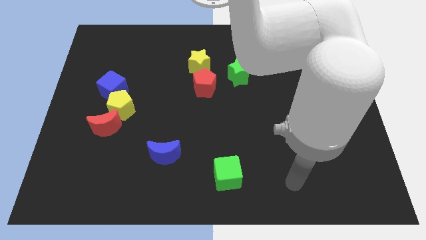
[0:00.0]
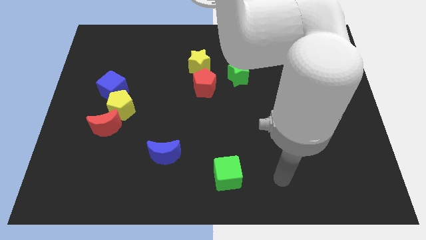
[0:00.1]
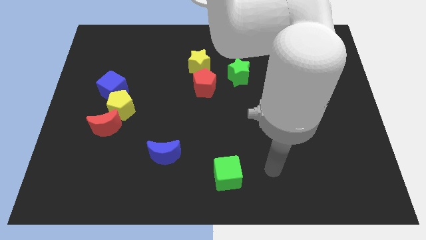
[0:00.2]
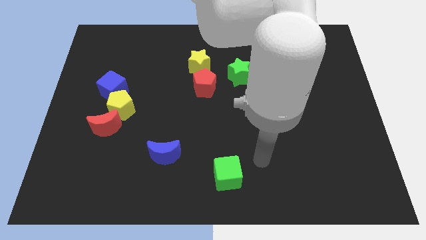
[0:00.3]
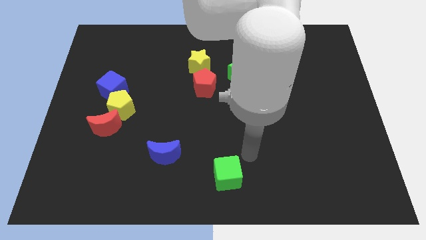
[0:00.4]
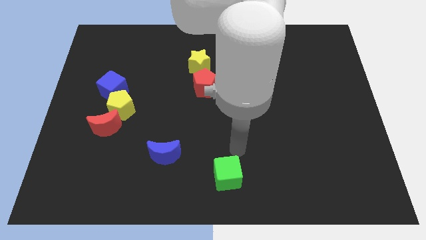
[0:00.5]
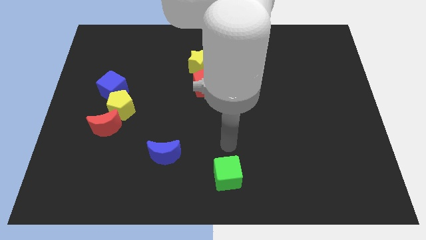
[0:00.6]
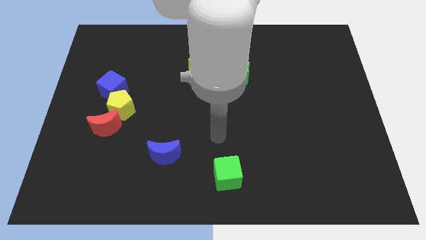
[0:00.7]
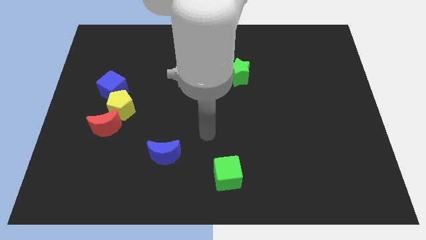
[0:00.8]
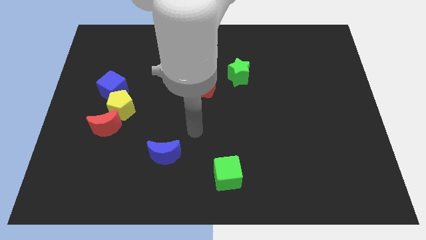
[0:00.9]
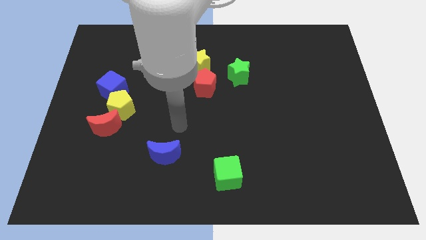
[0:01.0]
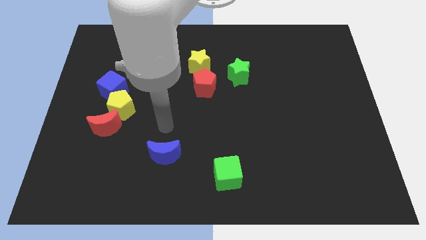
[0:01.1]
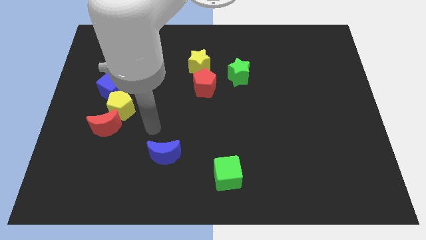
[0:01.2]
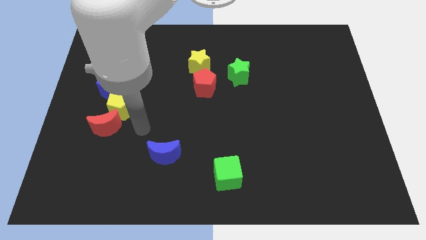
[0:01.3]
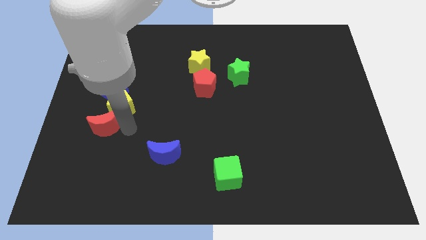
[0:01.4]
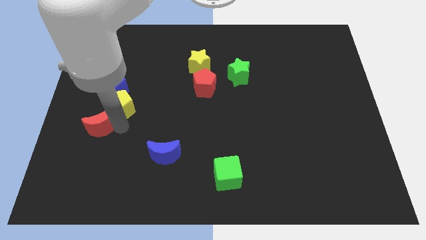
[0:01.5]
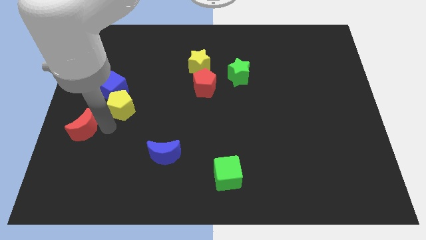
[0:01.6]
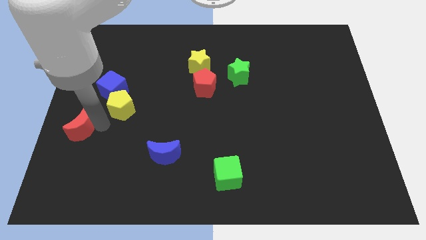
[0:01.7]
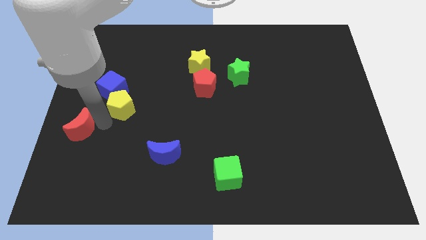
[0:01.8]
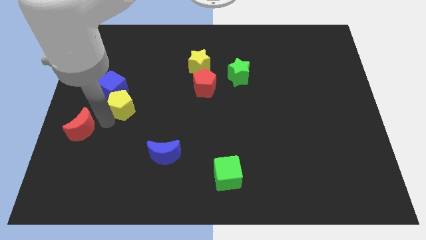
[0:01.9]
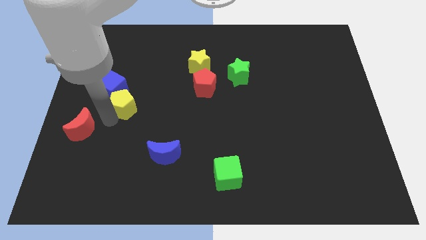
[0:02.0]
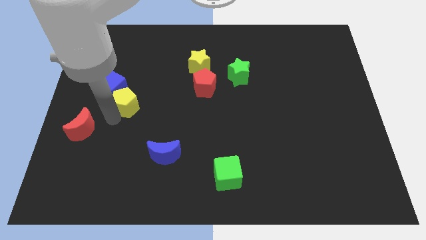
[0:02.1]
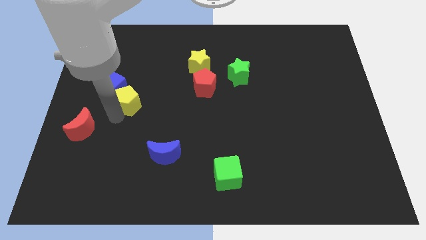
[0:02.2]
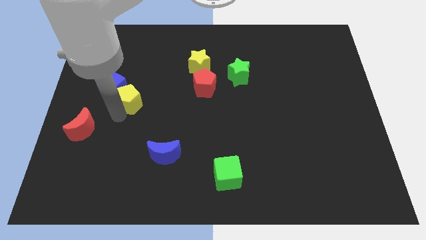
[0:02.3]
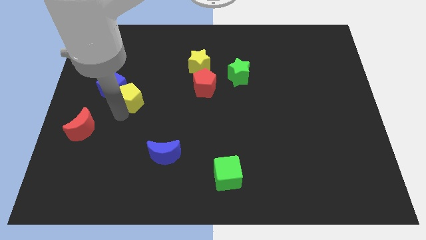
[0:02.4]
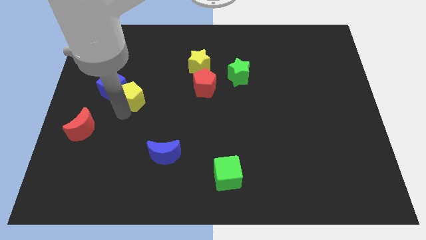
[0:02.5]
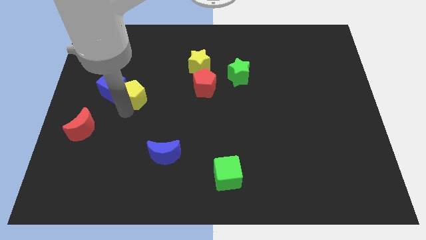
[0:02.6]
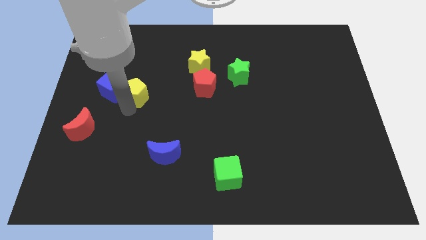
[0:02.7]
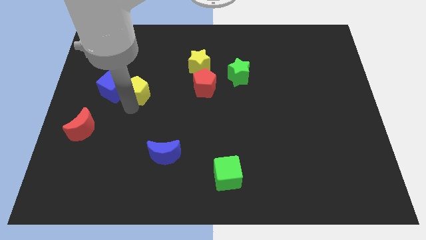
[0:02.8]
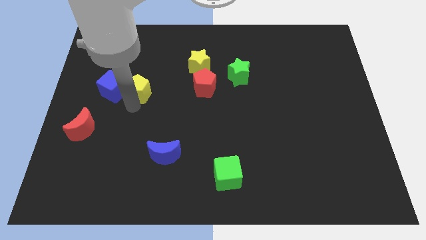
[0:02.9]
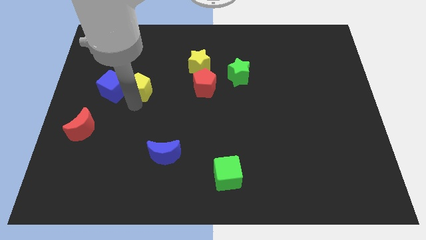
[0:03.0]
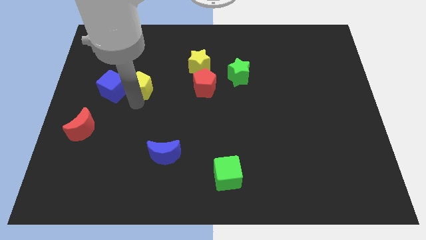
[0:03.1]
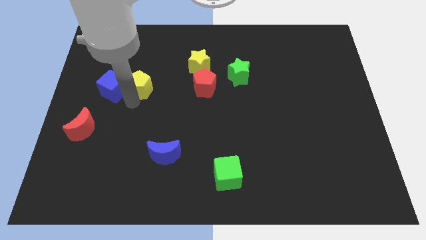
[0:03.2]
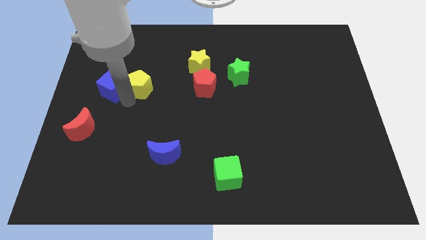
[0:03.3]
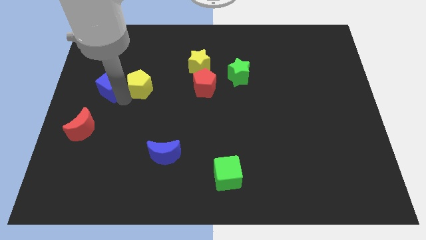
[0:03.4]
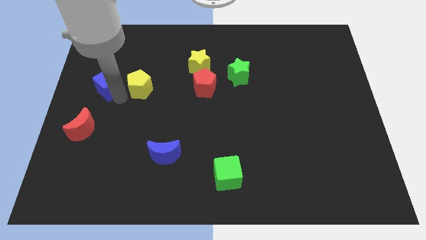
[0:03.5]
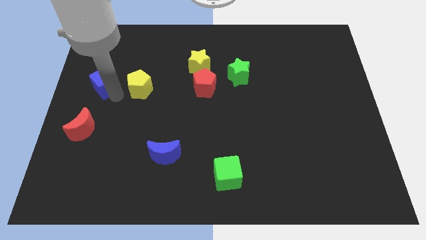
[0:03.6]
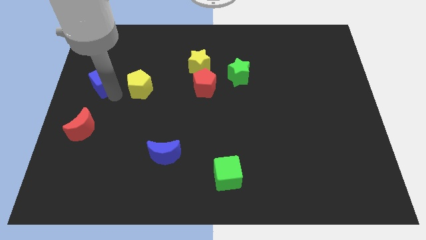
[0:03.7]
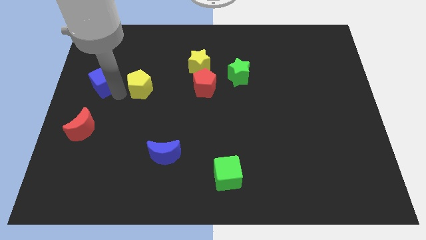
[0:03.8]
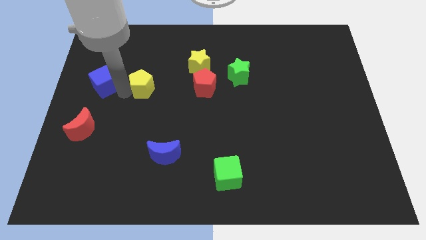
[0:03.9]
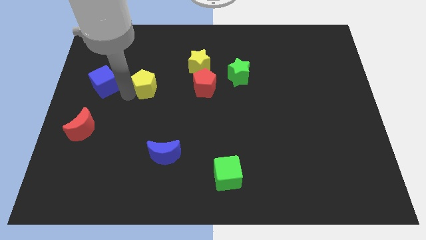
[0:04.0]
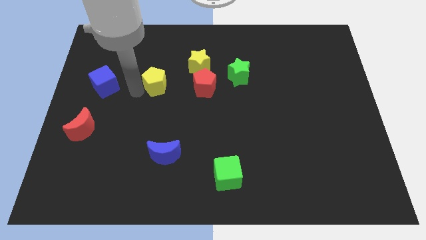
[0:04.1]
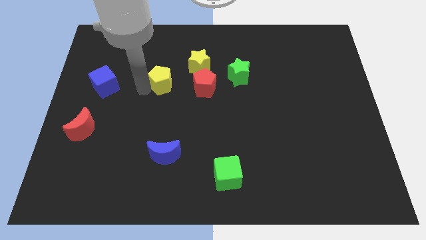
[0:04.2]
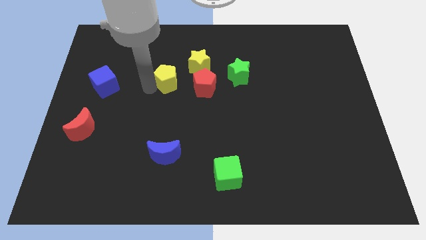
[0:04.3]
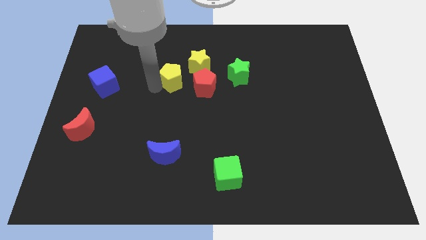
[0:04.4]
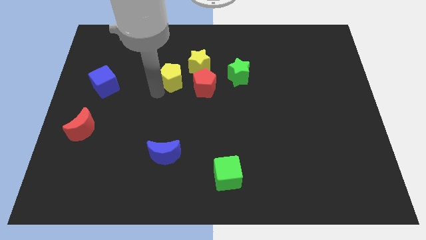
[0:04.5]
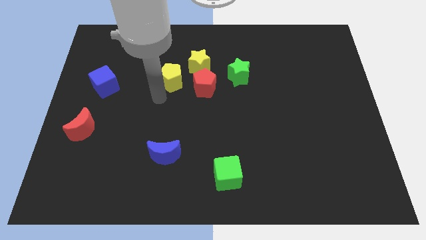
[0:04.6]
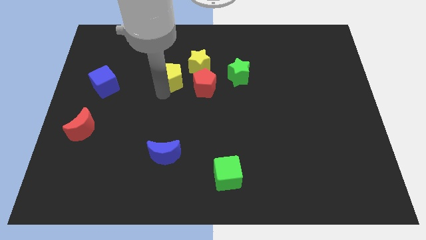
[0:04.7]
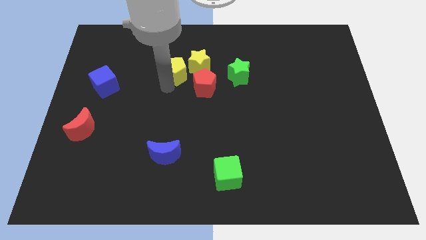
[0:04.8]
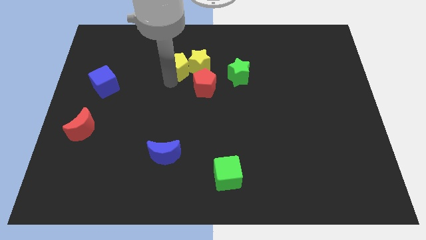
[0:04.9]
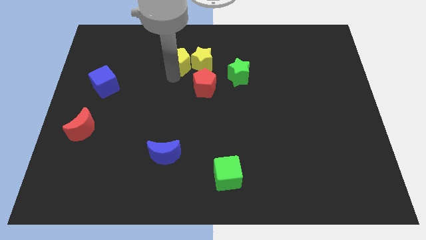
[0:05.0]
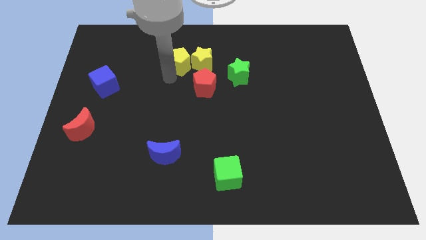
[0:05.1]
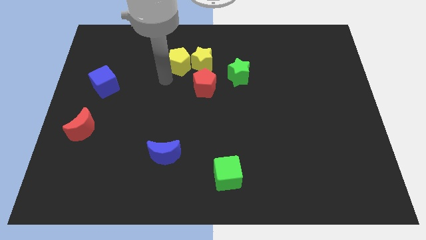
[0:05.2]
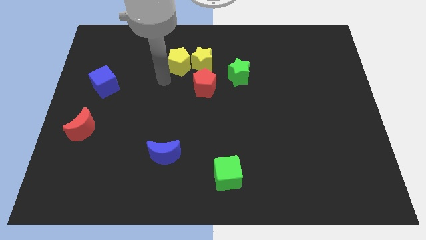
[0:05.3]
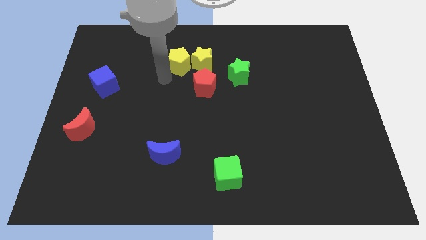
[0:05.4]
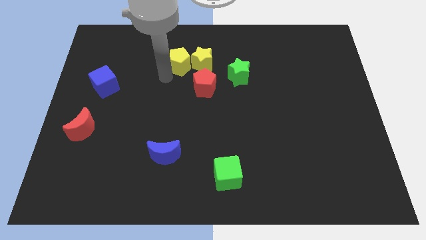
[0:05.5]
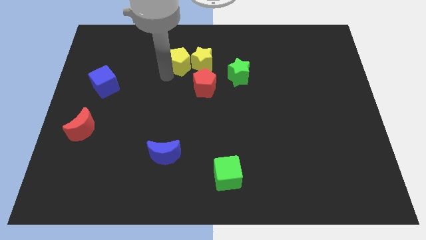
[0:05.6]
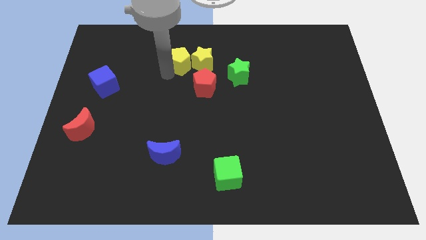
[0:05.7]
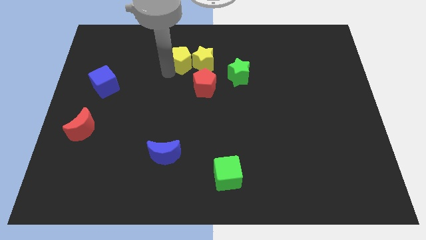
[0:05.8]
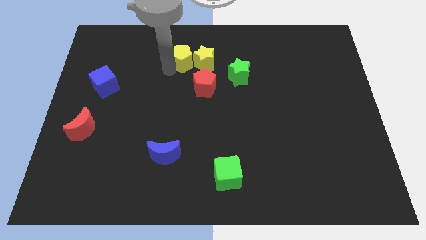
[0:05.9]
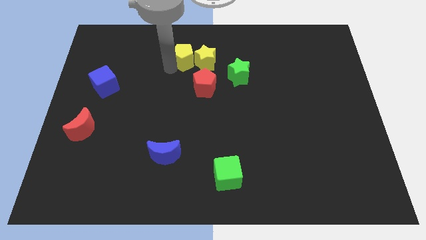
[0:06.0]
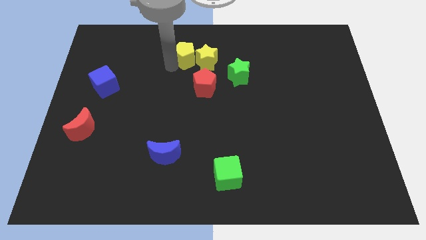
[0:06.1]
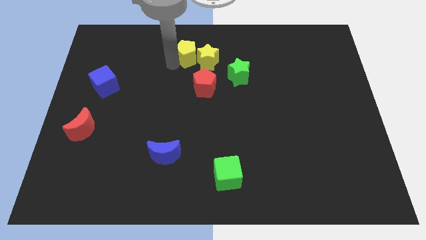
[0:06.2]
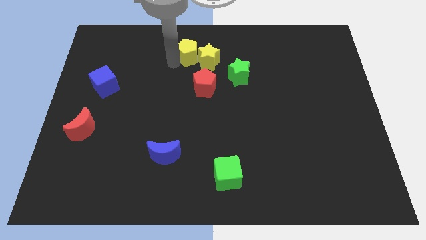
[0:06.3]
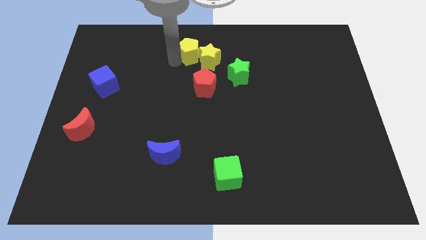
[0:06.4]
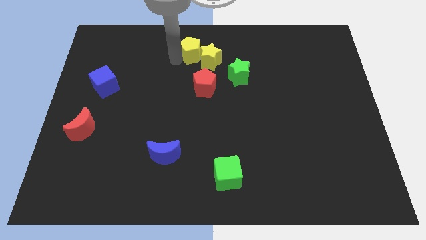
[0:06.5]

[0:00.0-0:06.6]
push the yellow pentagon to the top side
